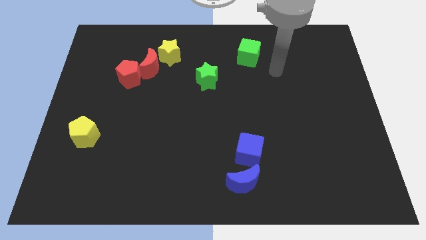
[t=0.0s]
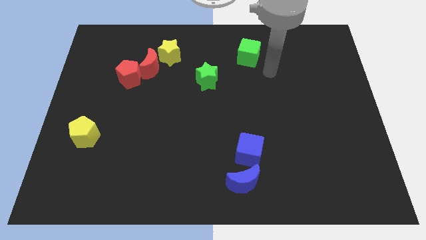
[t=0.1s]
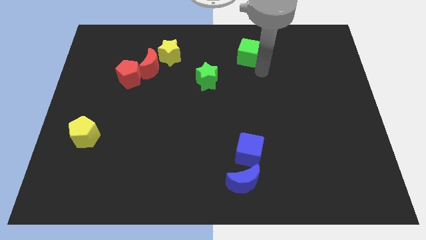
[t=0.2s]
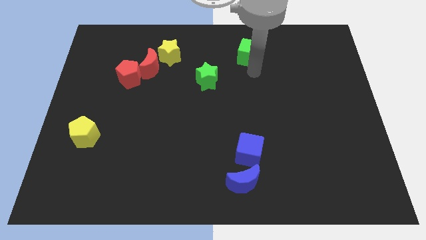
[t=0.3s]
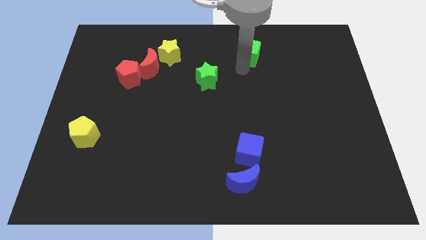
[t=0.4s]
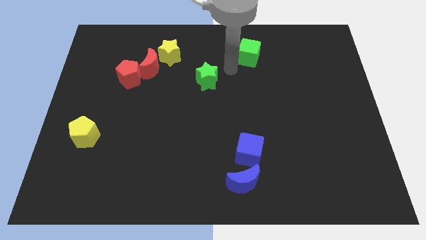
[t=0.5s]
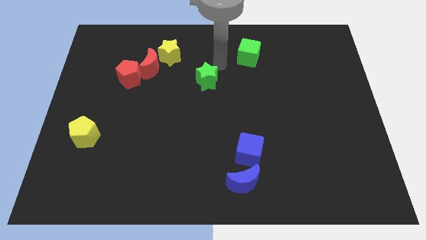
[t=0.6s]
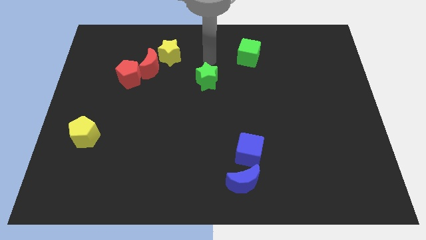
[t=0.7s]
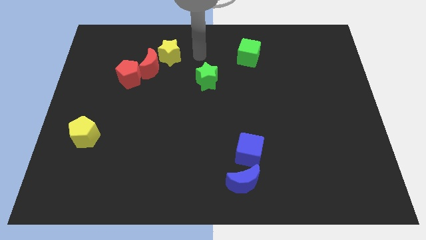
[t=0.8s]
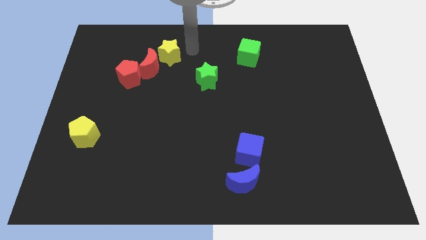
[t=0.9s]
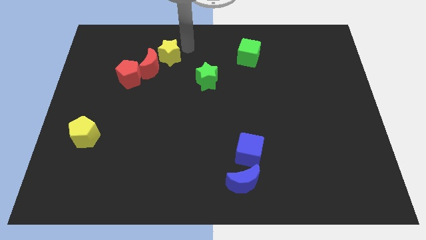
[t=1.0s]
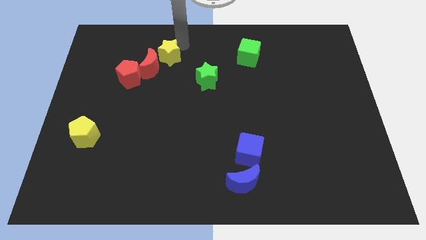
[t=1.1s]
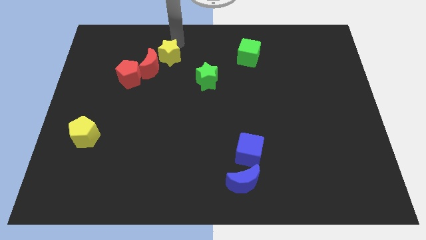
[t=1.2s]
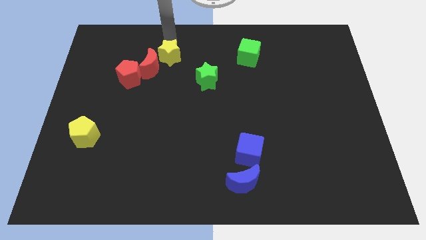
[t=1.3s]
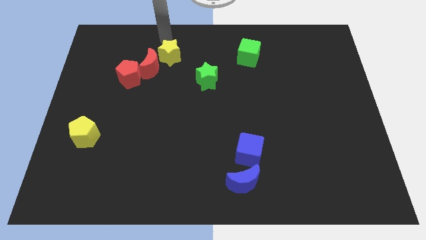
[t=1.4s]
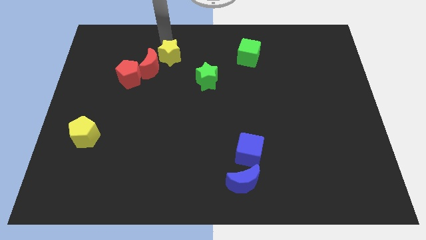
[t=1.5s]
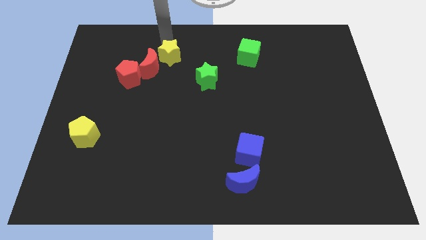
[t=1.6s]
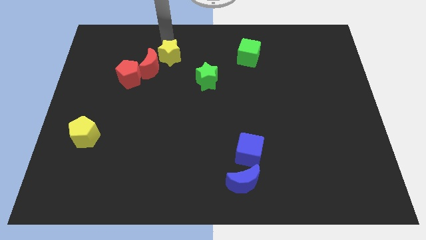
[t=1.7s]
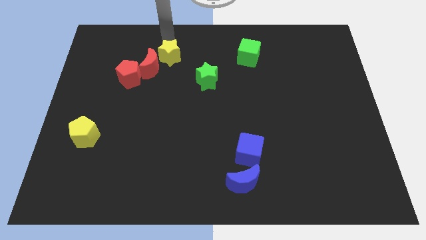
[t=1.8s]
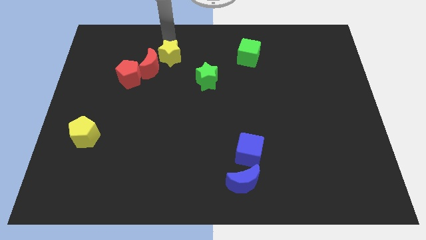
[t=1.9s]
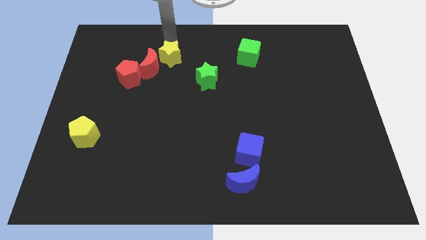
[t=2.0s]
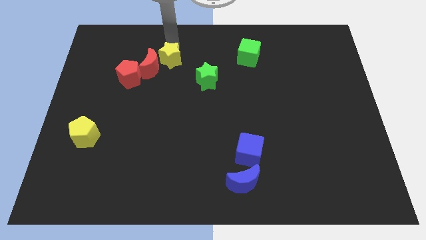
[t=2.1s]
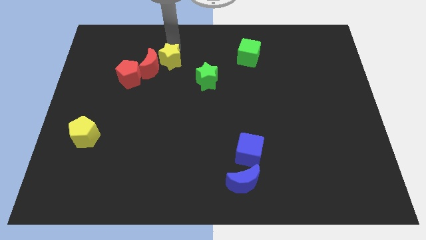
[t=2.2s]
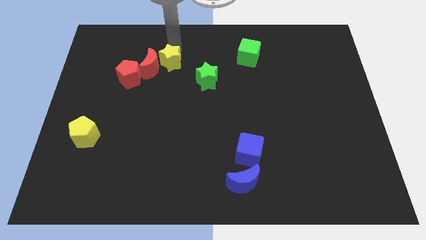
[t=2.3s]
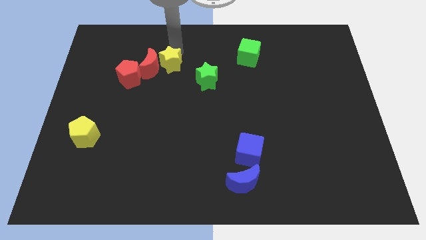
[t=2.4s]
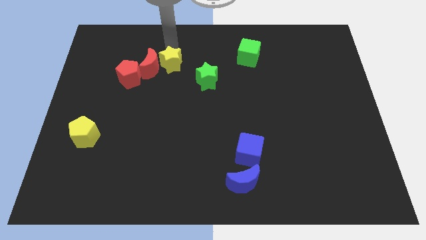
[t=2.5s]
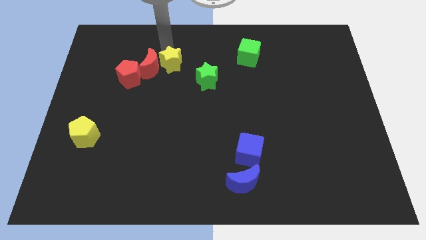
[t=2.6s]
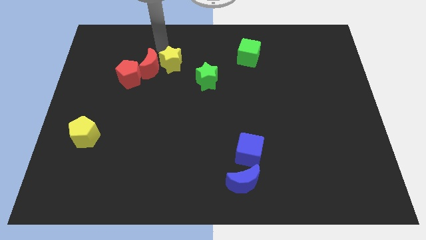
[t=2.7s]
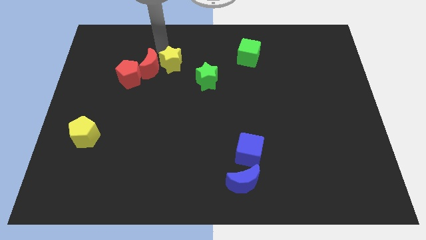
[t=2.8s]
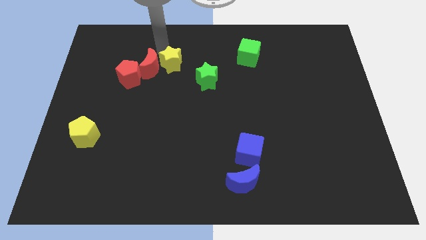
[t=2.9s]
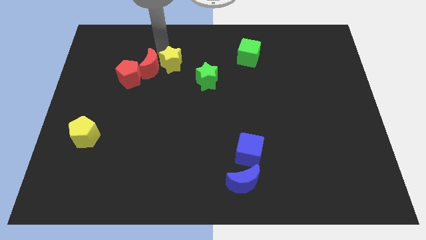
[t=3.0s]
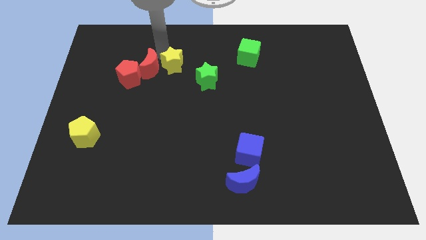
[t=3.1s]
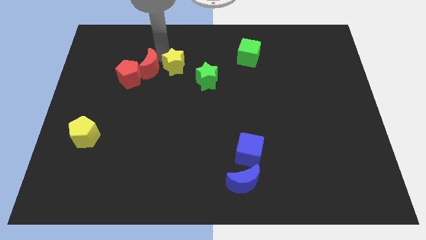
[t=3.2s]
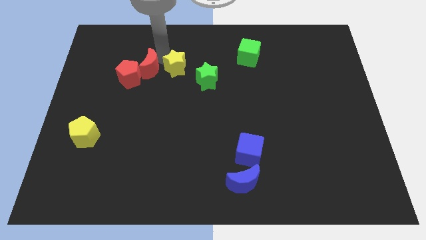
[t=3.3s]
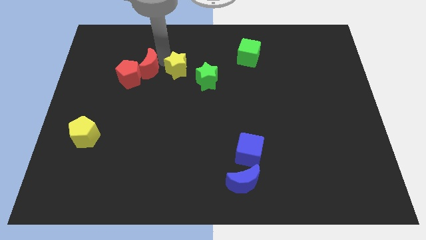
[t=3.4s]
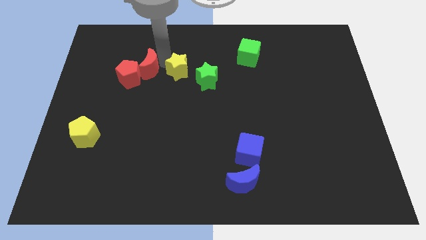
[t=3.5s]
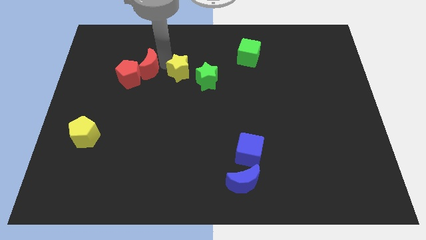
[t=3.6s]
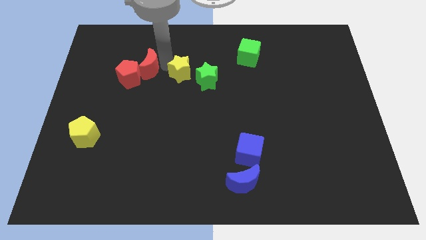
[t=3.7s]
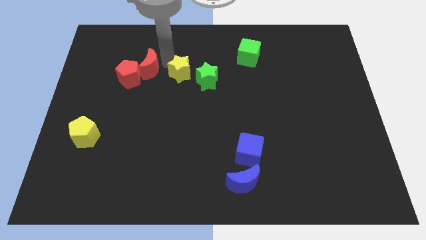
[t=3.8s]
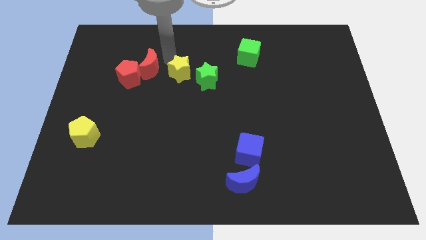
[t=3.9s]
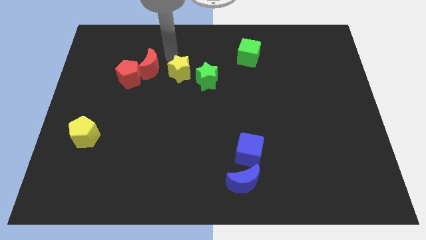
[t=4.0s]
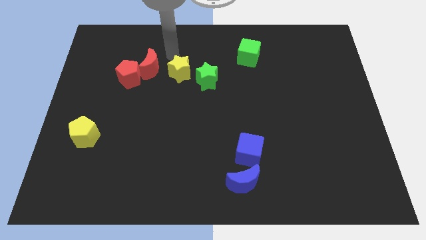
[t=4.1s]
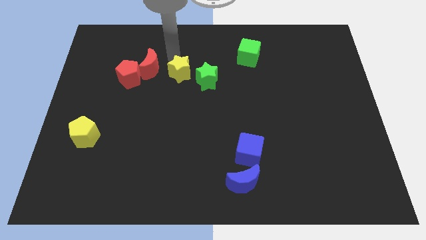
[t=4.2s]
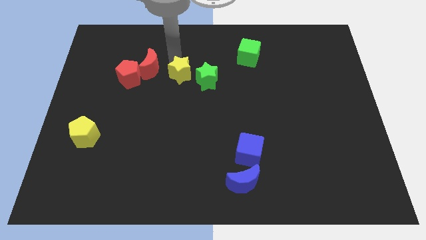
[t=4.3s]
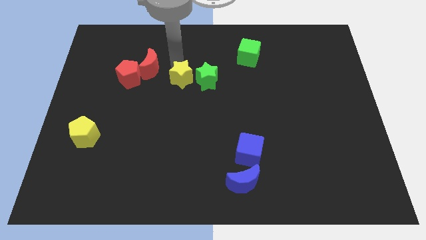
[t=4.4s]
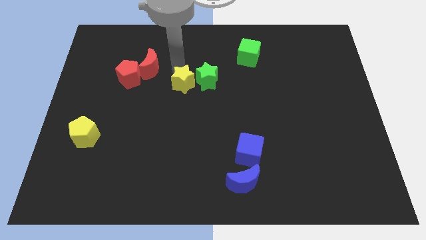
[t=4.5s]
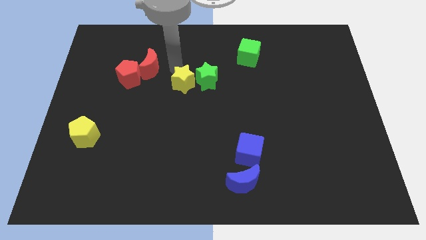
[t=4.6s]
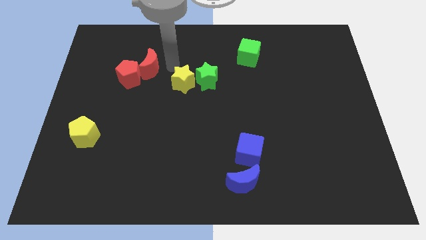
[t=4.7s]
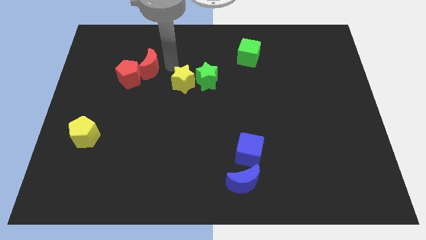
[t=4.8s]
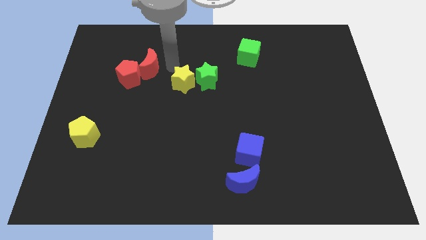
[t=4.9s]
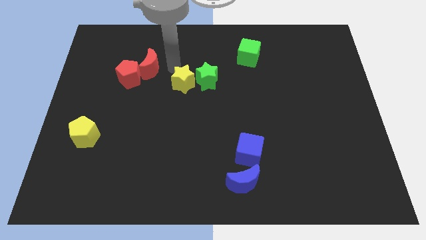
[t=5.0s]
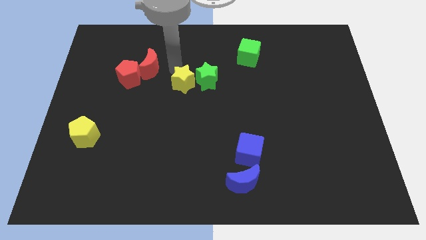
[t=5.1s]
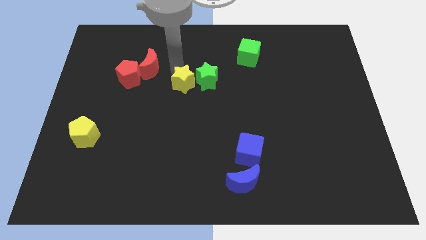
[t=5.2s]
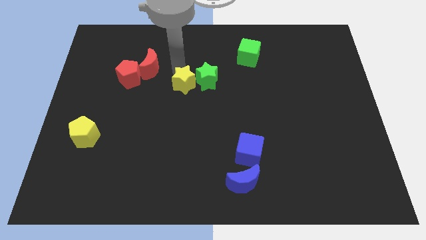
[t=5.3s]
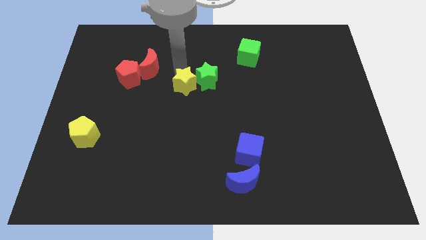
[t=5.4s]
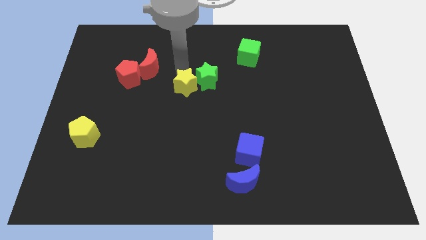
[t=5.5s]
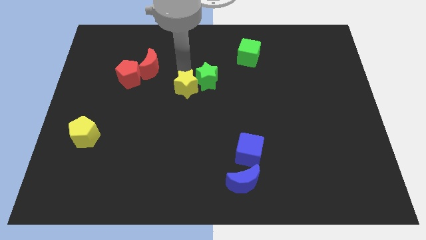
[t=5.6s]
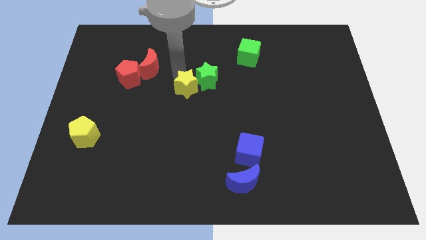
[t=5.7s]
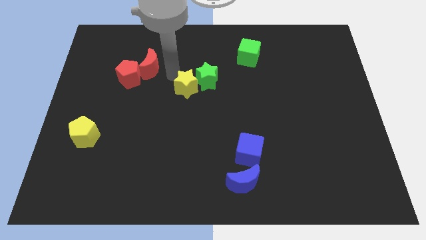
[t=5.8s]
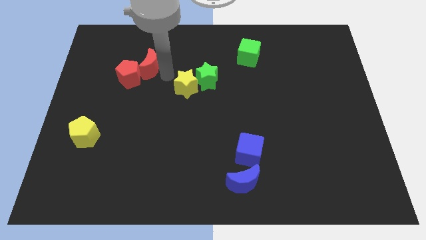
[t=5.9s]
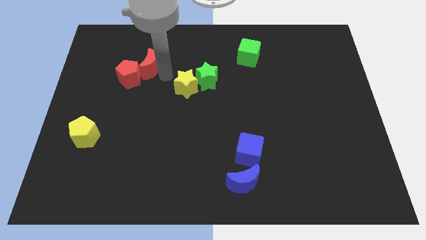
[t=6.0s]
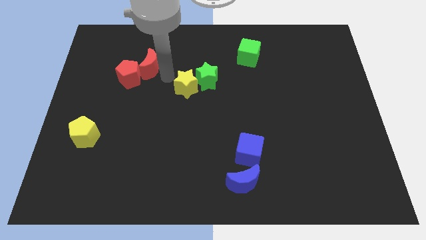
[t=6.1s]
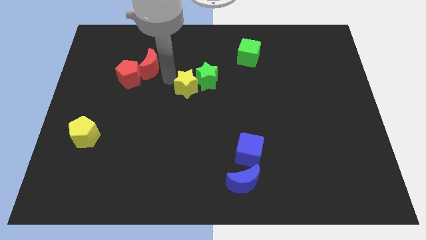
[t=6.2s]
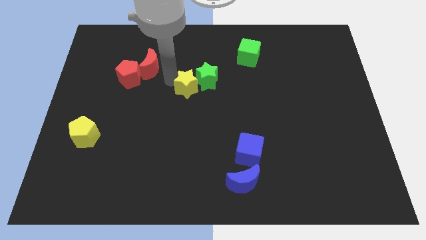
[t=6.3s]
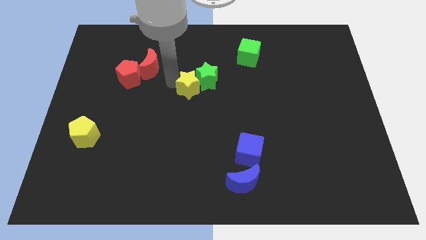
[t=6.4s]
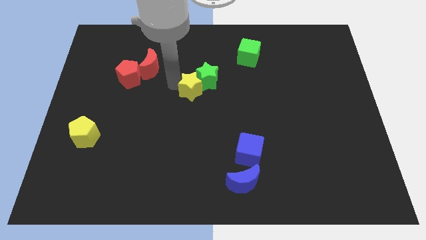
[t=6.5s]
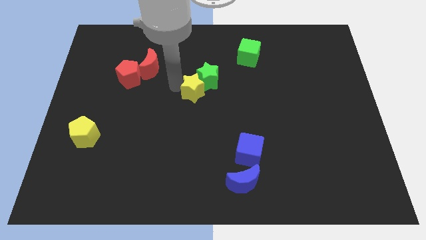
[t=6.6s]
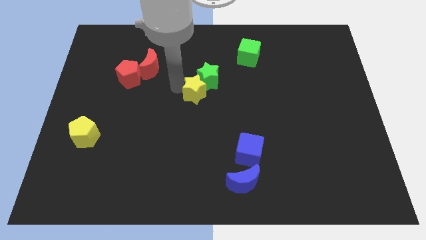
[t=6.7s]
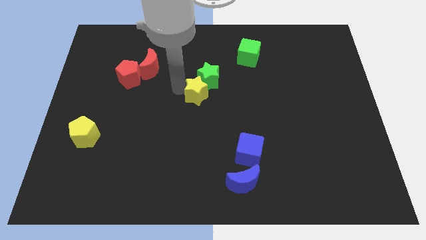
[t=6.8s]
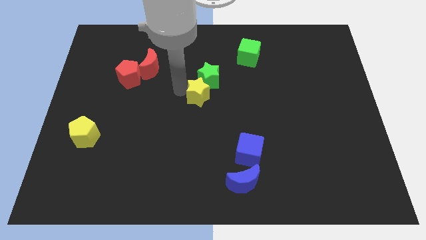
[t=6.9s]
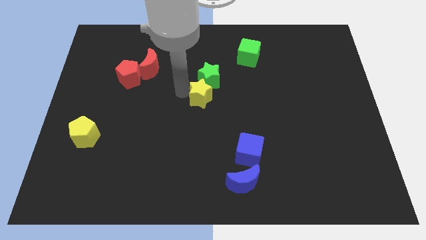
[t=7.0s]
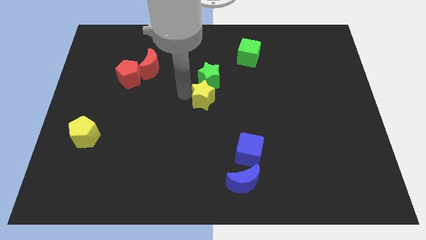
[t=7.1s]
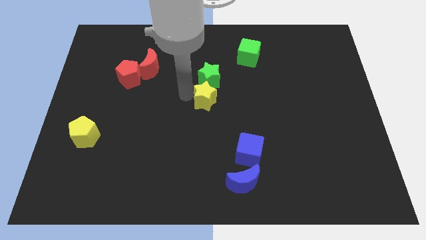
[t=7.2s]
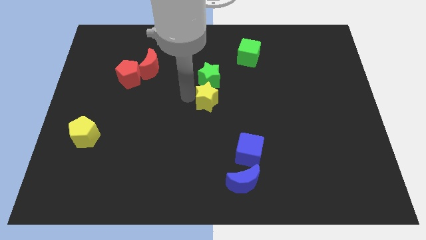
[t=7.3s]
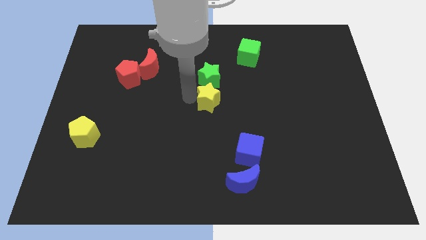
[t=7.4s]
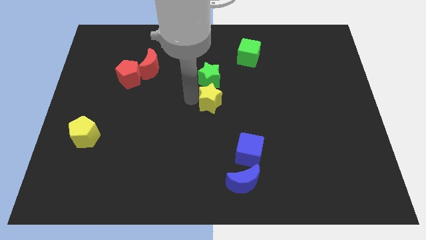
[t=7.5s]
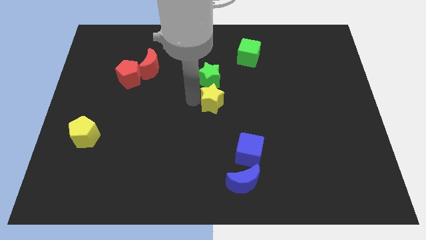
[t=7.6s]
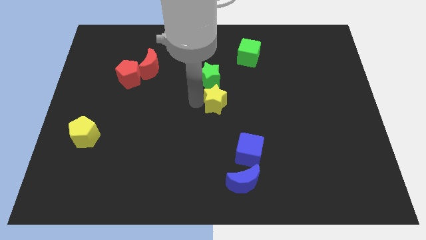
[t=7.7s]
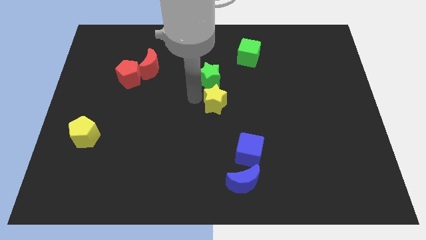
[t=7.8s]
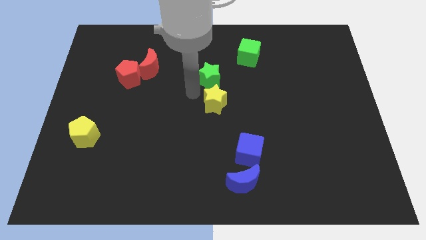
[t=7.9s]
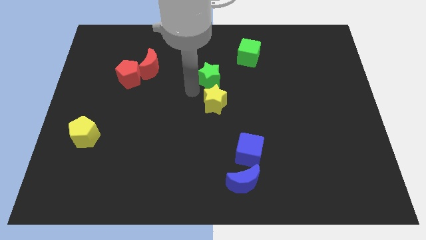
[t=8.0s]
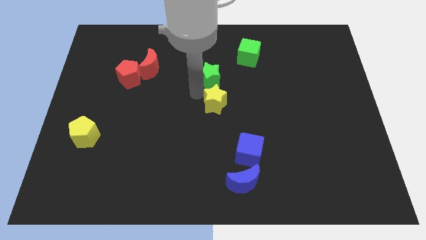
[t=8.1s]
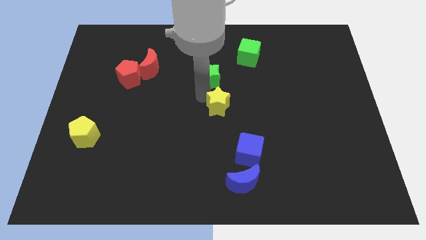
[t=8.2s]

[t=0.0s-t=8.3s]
push the yellow star down and to the right diagonally
